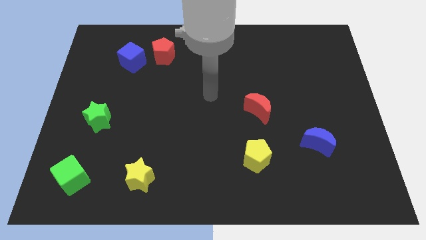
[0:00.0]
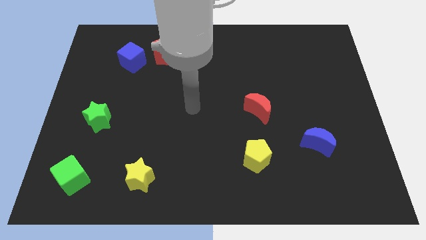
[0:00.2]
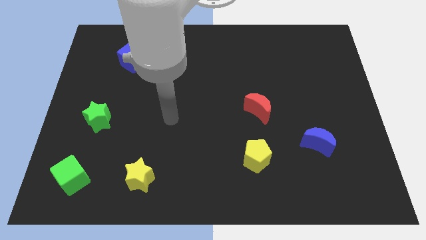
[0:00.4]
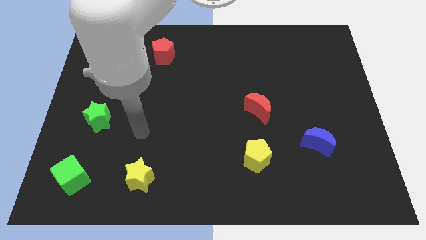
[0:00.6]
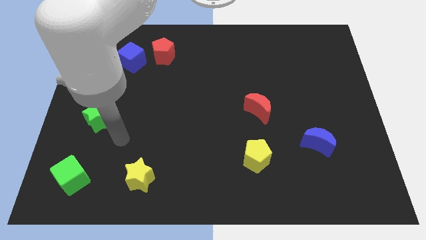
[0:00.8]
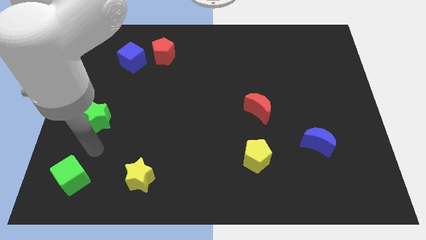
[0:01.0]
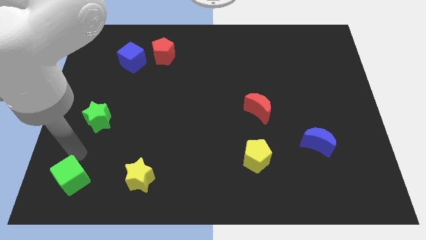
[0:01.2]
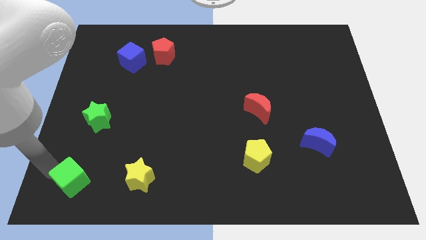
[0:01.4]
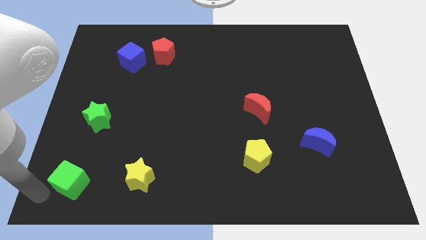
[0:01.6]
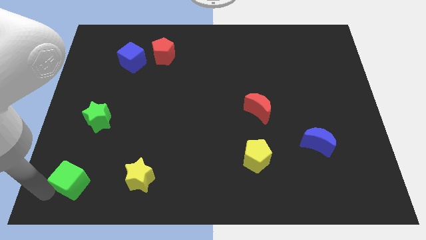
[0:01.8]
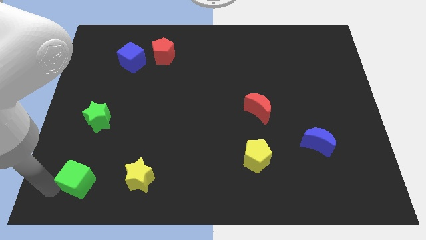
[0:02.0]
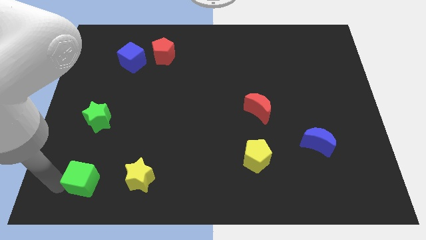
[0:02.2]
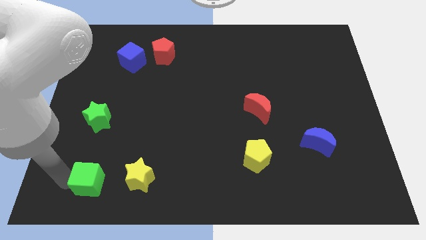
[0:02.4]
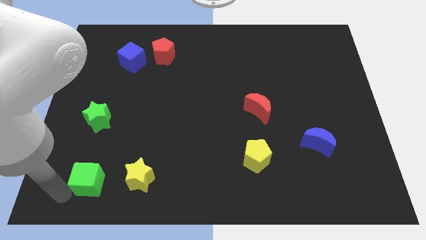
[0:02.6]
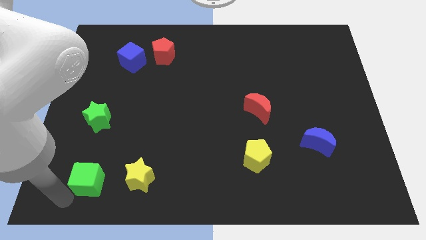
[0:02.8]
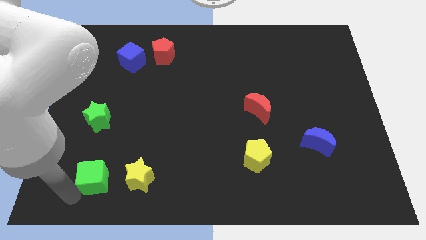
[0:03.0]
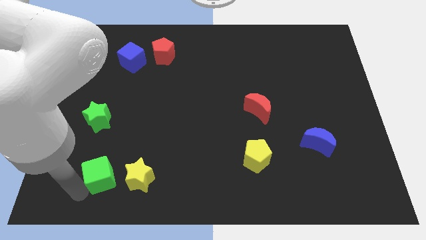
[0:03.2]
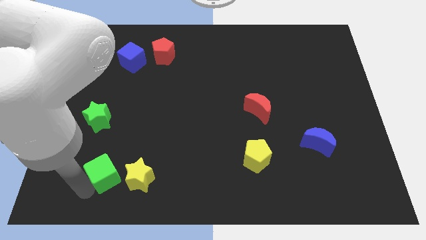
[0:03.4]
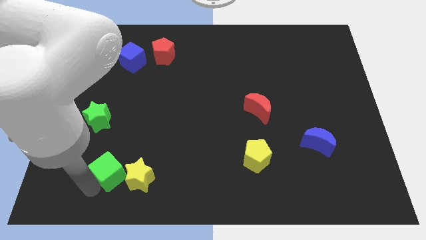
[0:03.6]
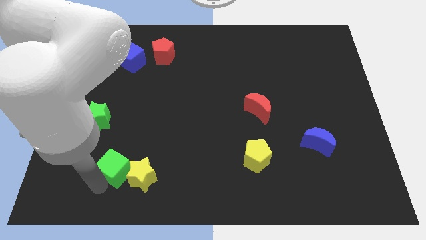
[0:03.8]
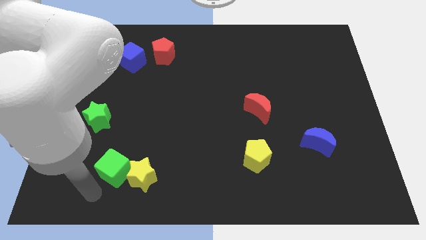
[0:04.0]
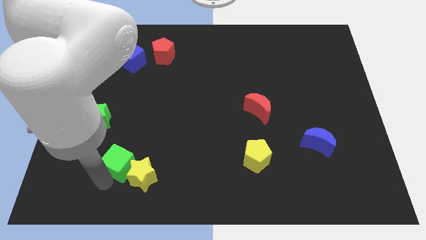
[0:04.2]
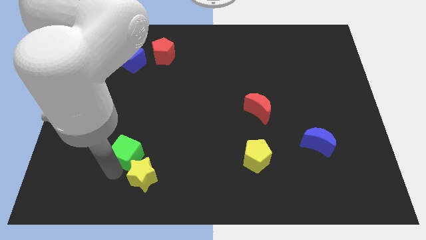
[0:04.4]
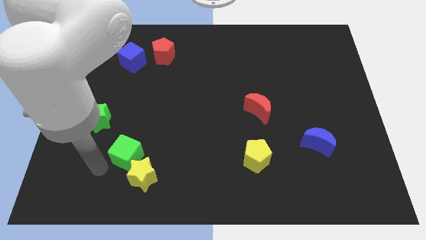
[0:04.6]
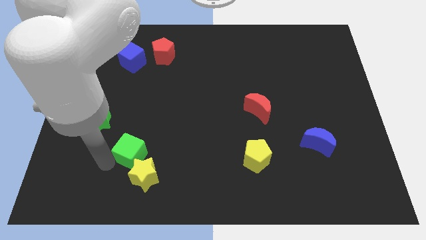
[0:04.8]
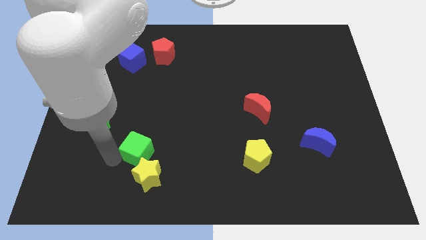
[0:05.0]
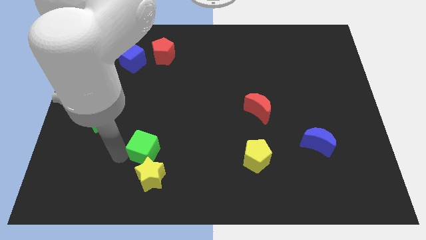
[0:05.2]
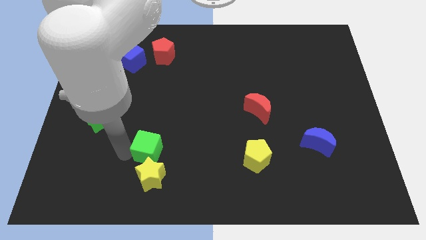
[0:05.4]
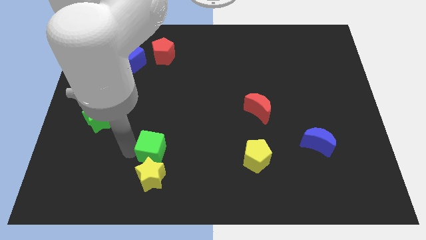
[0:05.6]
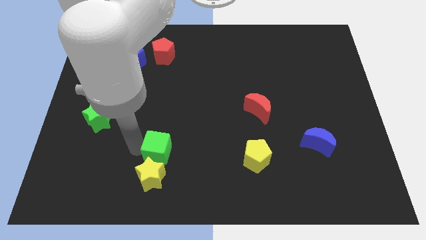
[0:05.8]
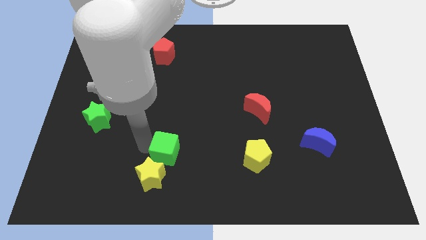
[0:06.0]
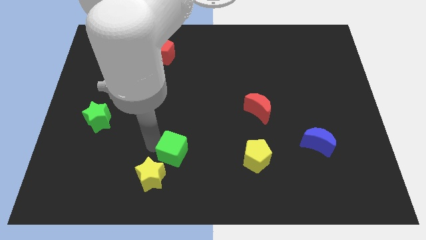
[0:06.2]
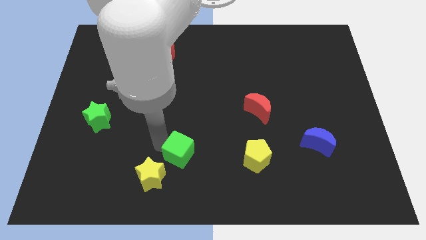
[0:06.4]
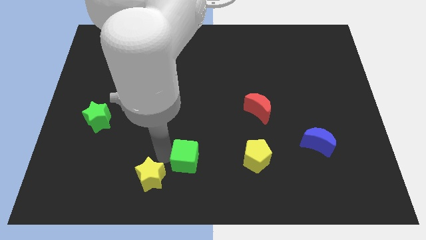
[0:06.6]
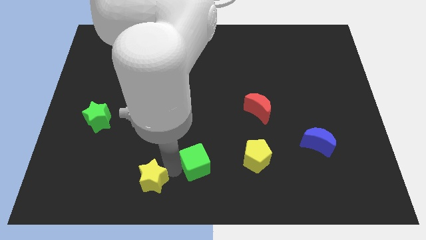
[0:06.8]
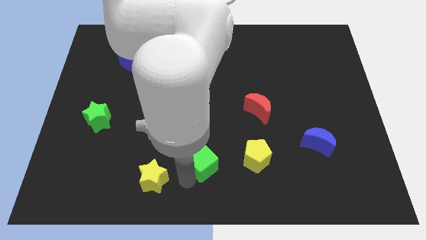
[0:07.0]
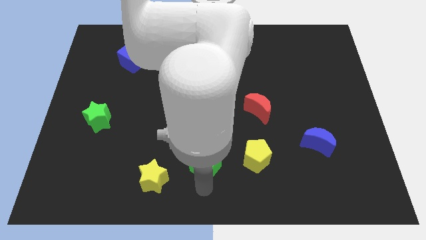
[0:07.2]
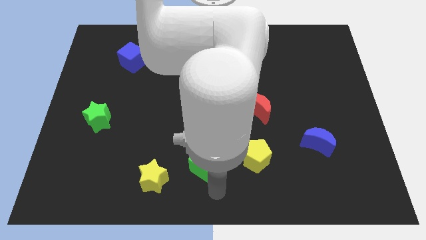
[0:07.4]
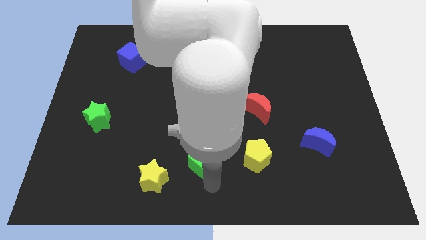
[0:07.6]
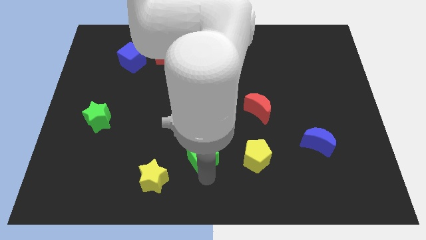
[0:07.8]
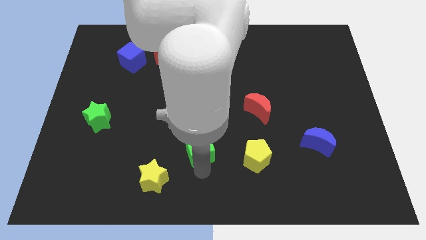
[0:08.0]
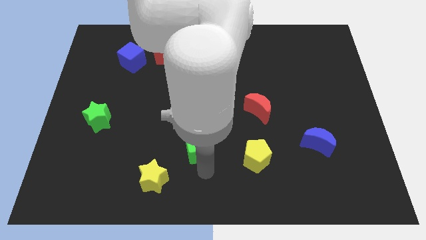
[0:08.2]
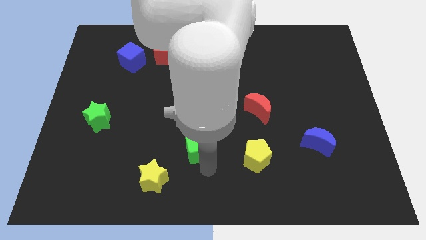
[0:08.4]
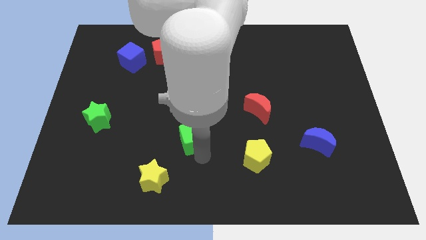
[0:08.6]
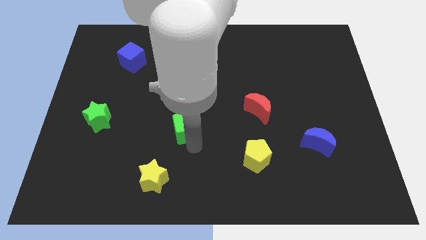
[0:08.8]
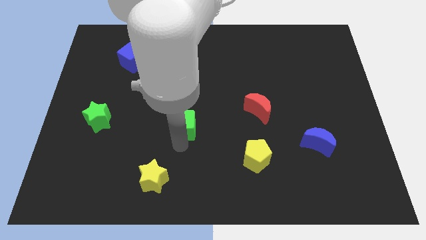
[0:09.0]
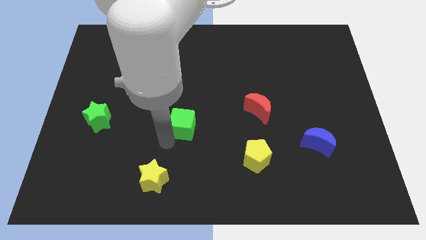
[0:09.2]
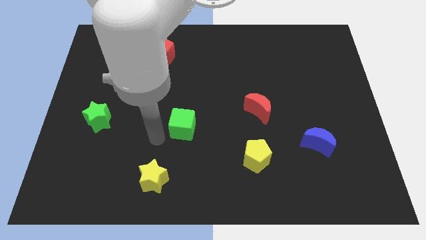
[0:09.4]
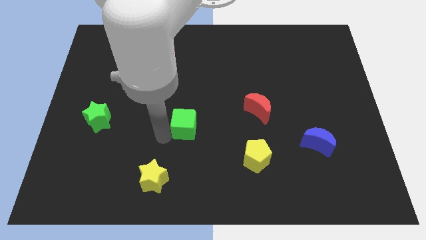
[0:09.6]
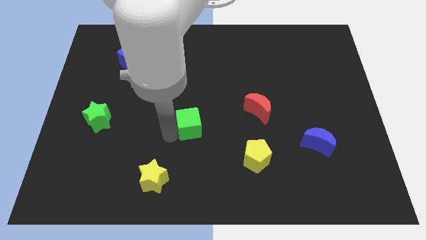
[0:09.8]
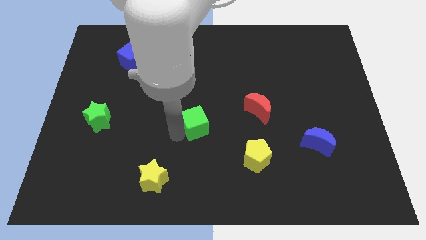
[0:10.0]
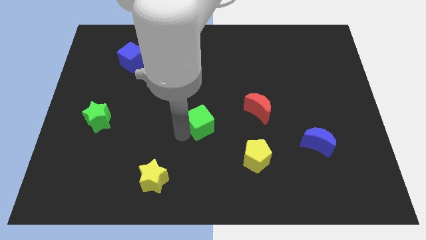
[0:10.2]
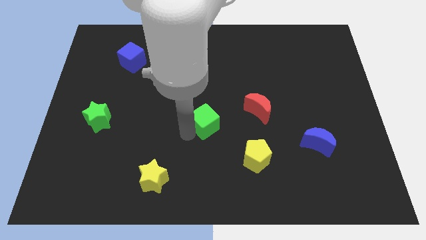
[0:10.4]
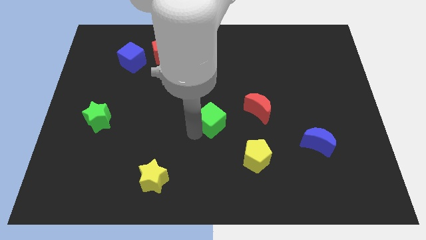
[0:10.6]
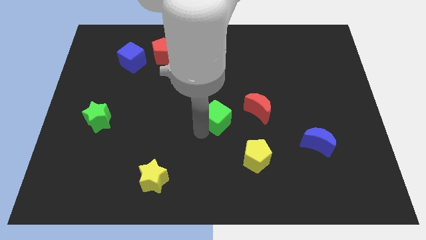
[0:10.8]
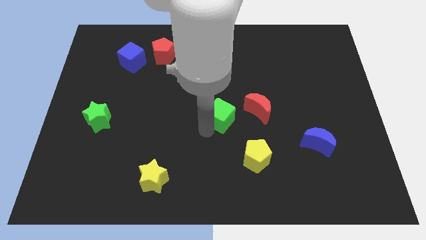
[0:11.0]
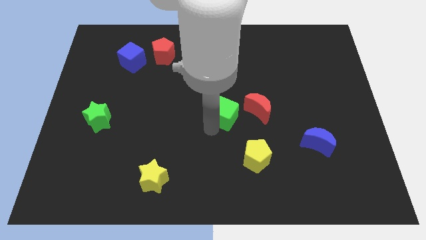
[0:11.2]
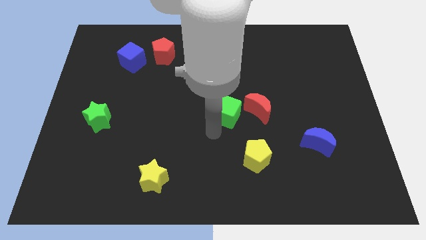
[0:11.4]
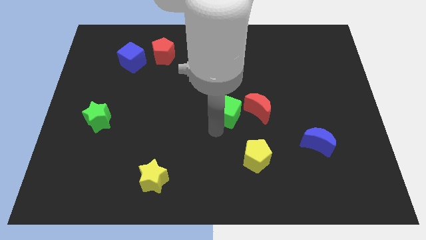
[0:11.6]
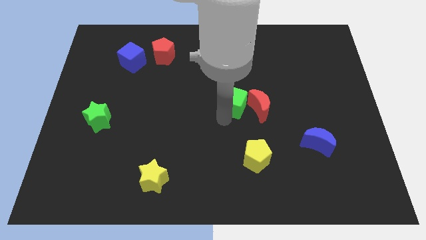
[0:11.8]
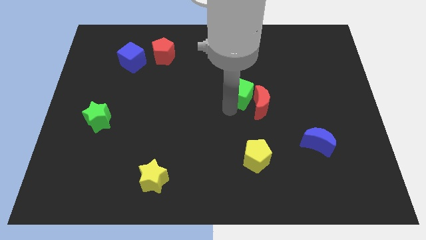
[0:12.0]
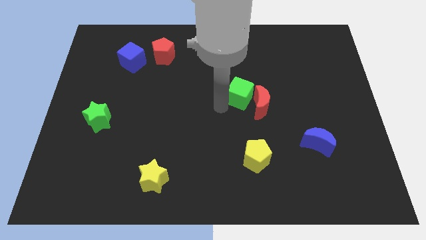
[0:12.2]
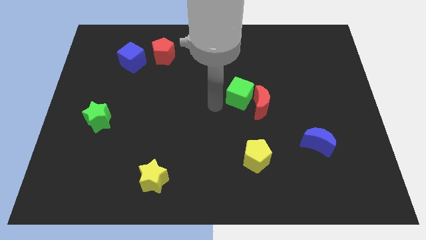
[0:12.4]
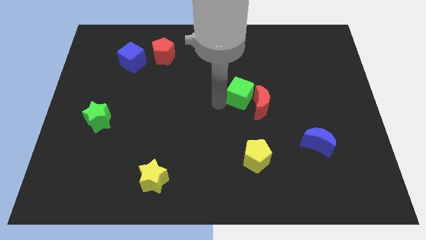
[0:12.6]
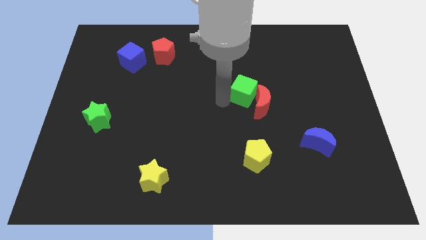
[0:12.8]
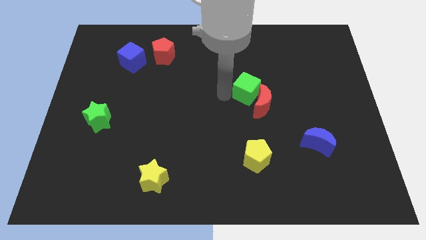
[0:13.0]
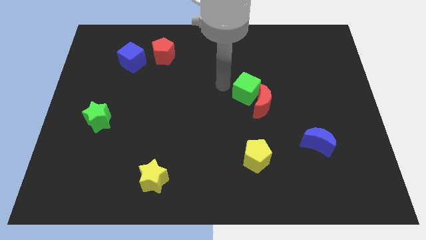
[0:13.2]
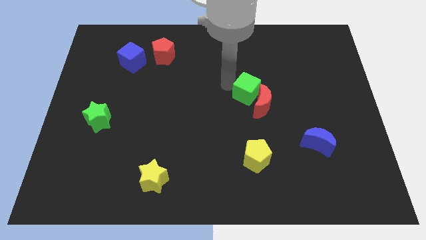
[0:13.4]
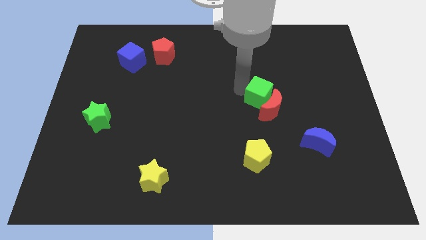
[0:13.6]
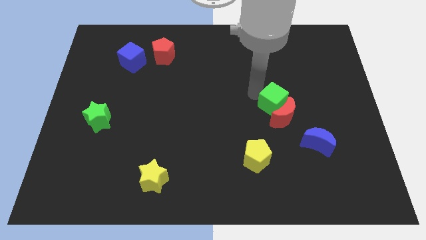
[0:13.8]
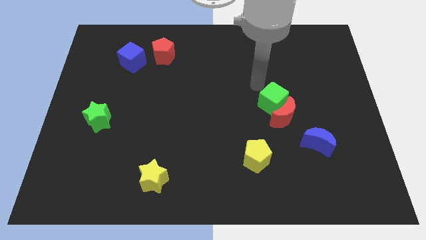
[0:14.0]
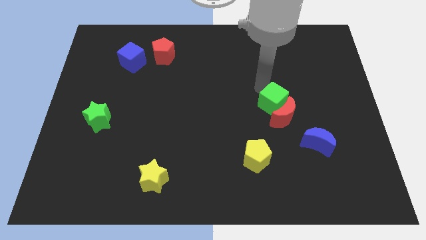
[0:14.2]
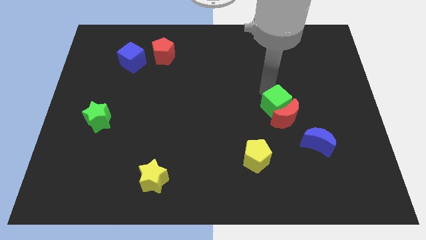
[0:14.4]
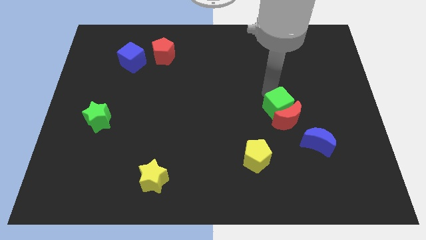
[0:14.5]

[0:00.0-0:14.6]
slide the green cube diagonally up and to the left of the blue moon

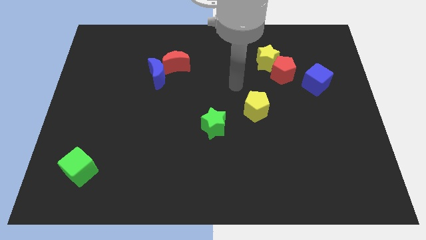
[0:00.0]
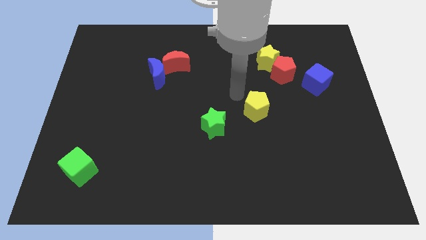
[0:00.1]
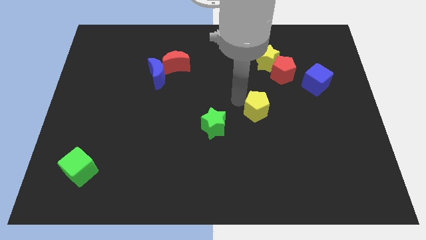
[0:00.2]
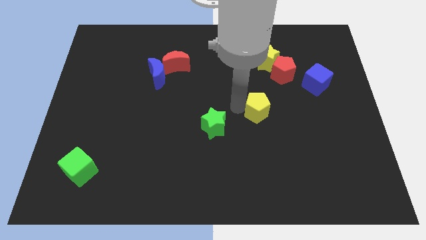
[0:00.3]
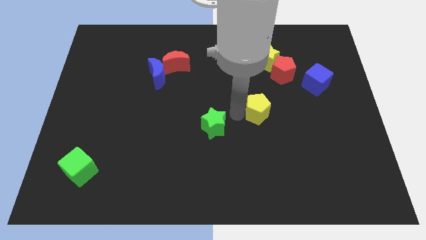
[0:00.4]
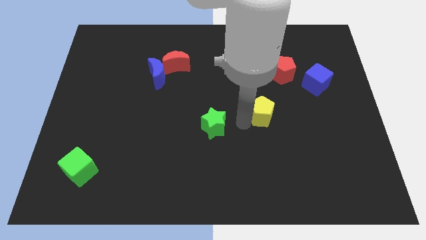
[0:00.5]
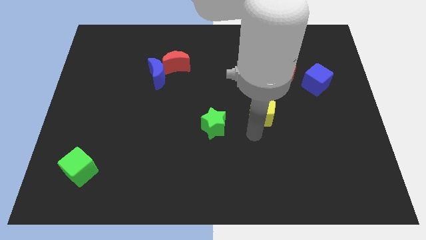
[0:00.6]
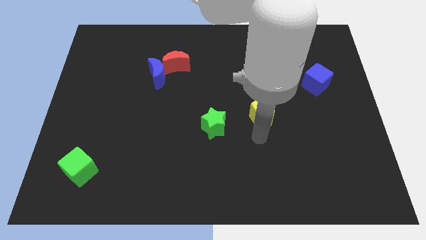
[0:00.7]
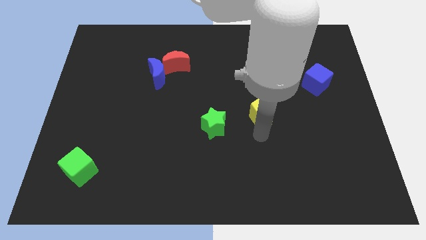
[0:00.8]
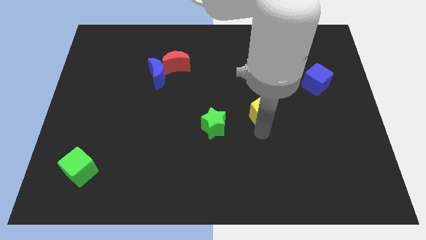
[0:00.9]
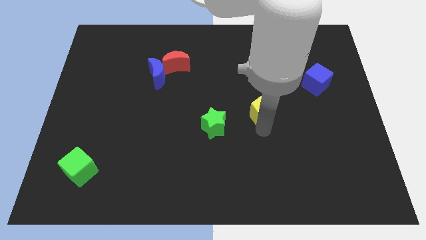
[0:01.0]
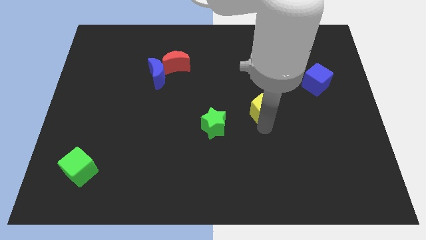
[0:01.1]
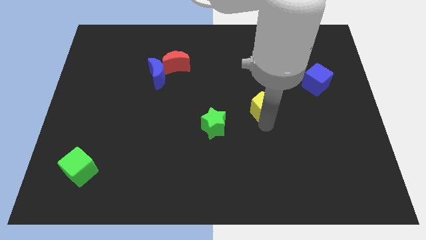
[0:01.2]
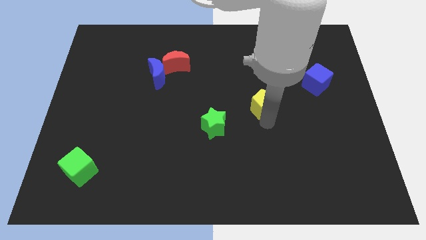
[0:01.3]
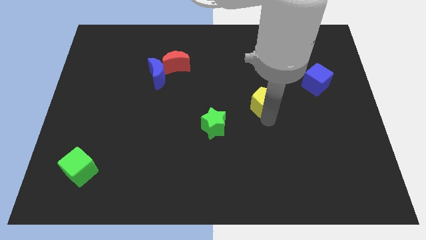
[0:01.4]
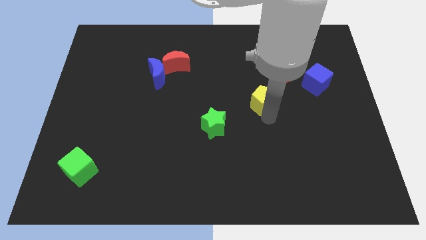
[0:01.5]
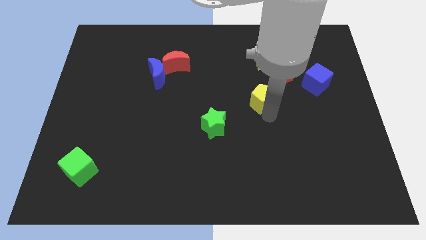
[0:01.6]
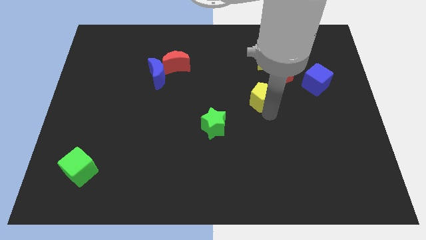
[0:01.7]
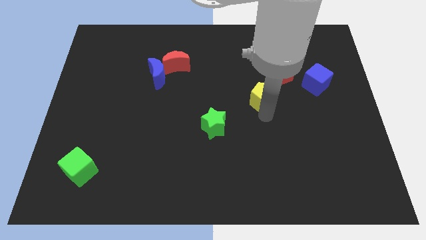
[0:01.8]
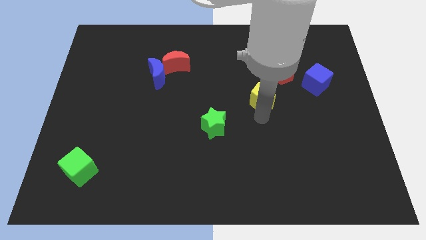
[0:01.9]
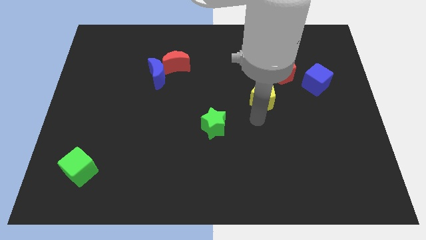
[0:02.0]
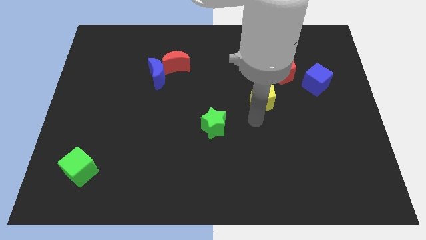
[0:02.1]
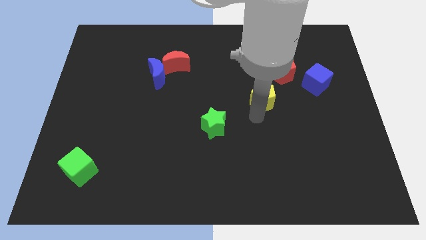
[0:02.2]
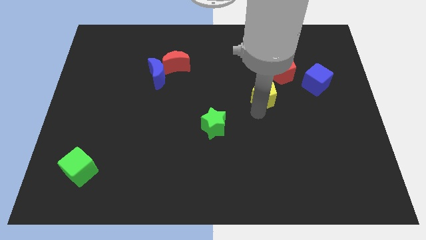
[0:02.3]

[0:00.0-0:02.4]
move the yellow pentagon left of the blue cube
